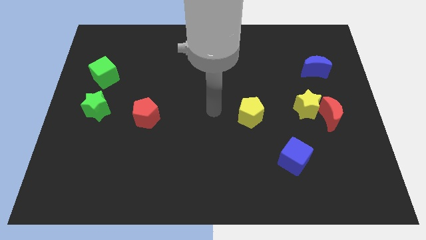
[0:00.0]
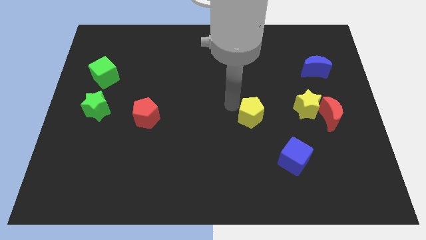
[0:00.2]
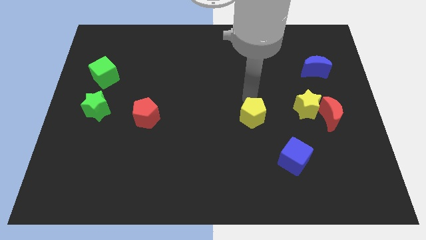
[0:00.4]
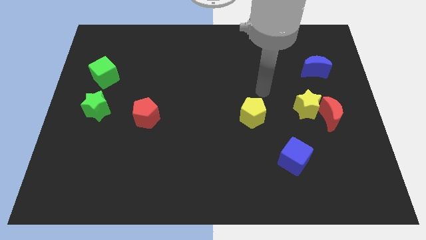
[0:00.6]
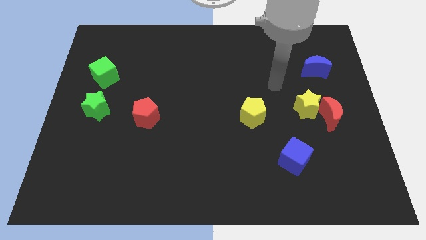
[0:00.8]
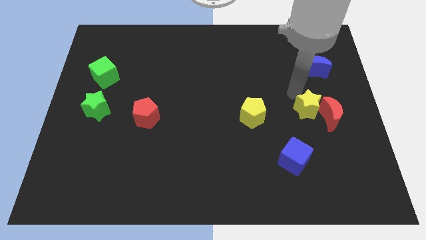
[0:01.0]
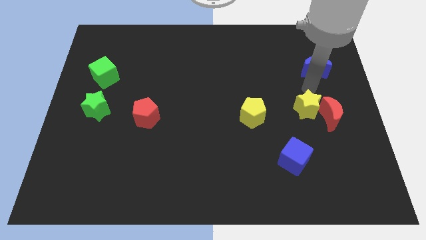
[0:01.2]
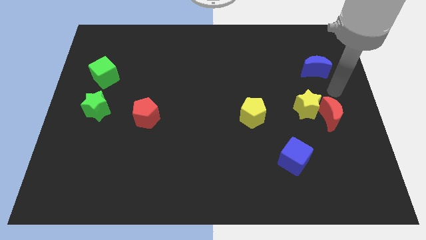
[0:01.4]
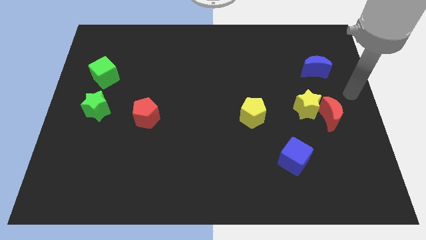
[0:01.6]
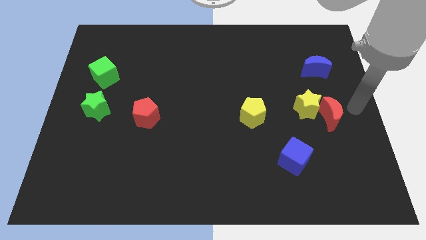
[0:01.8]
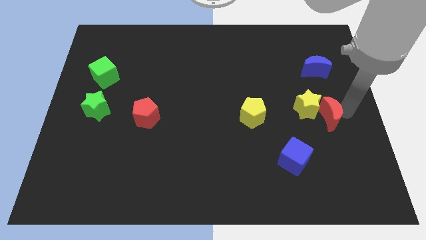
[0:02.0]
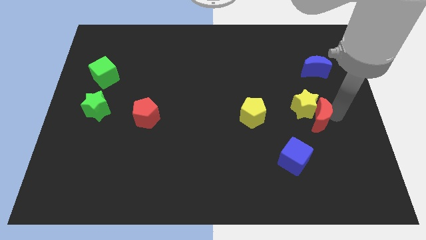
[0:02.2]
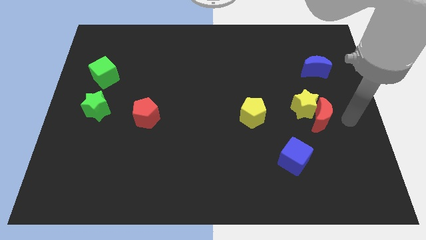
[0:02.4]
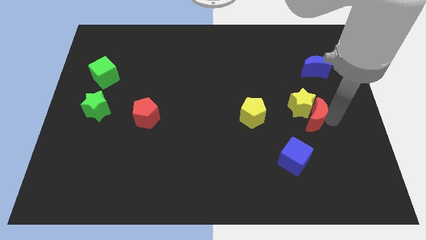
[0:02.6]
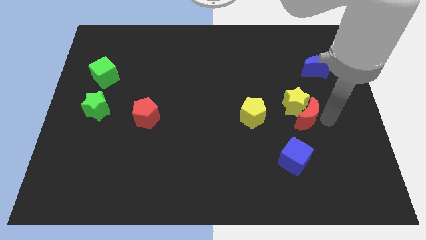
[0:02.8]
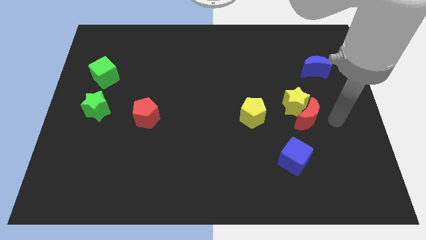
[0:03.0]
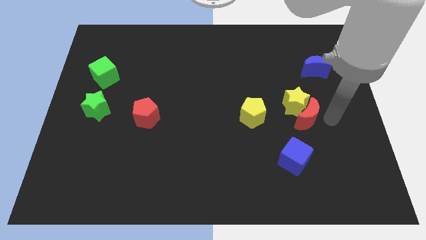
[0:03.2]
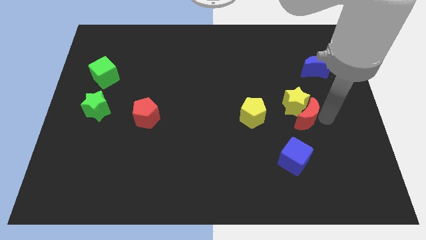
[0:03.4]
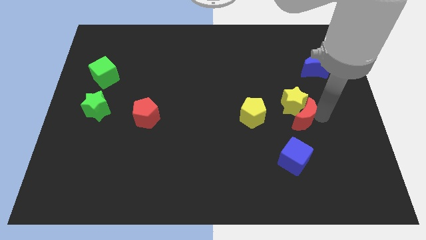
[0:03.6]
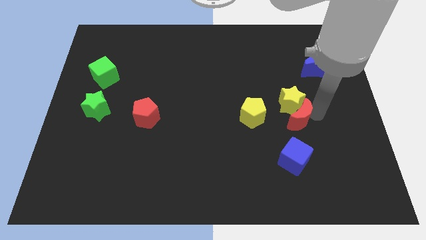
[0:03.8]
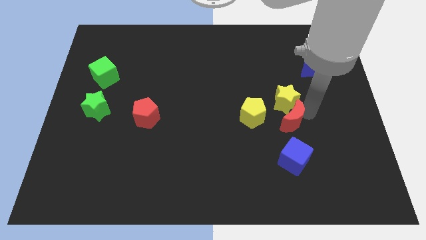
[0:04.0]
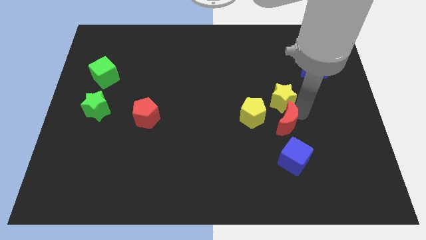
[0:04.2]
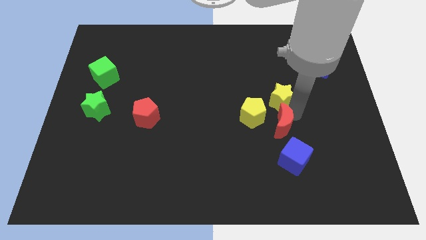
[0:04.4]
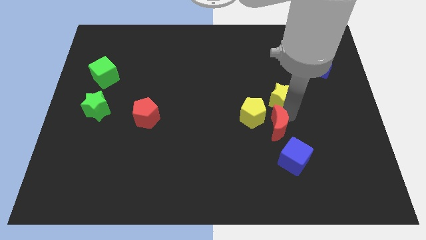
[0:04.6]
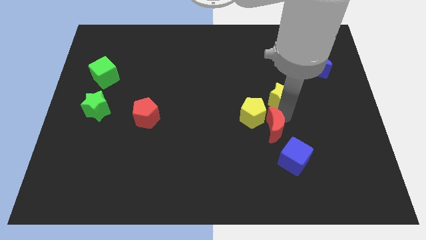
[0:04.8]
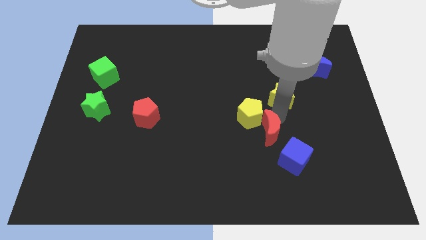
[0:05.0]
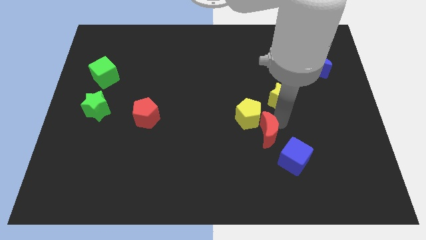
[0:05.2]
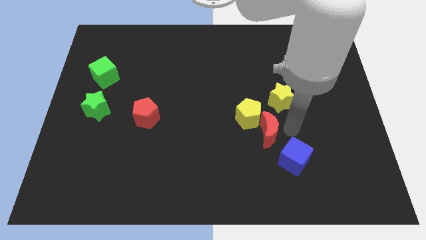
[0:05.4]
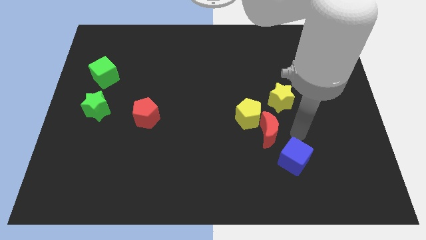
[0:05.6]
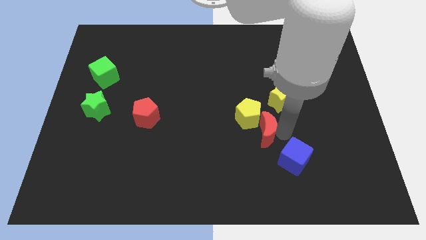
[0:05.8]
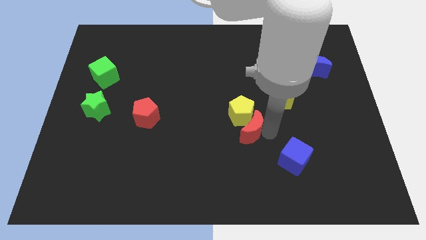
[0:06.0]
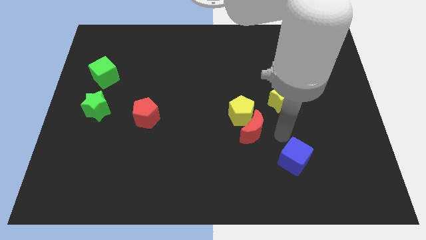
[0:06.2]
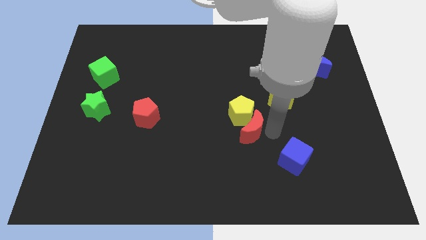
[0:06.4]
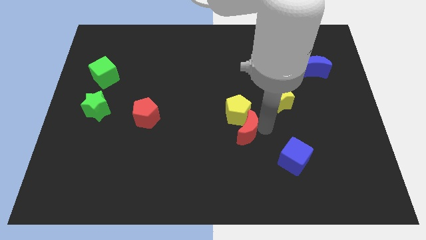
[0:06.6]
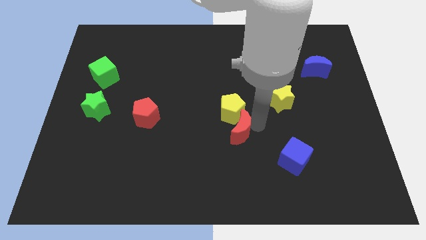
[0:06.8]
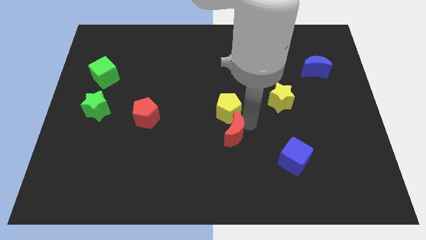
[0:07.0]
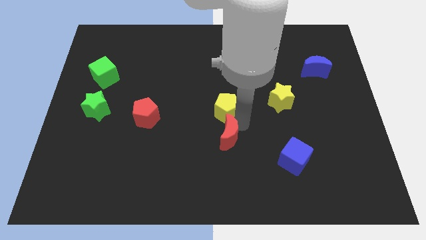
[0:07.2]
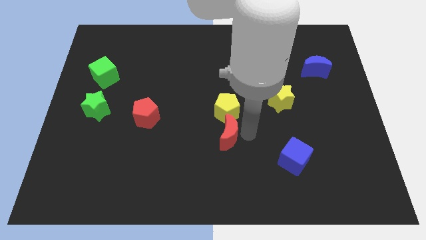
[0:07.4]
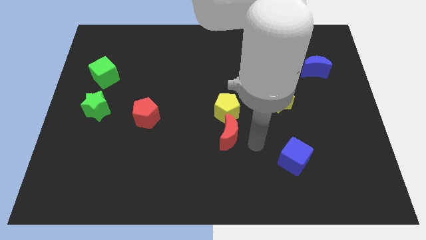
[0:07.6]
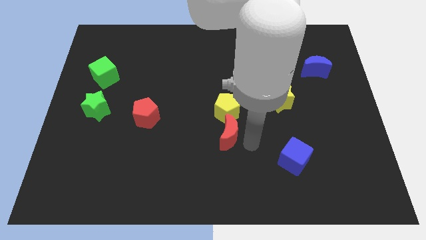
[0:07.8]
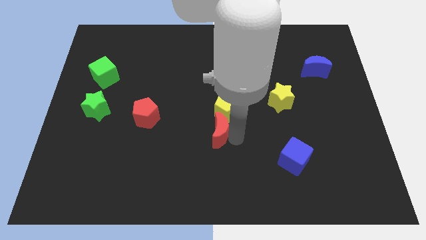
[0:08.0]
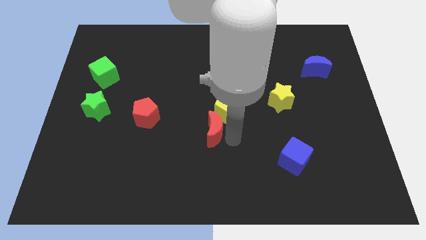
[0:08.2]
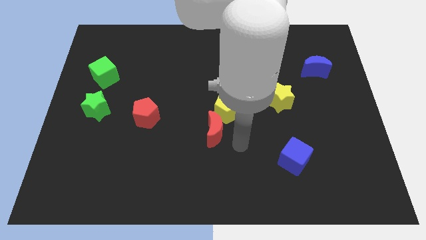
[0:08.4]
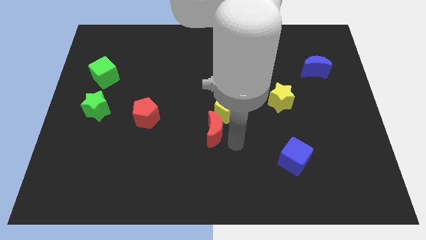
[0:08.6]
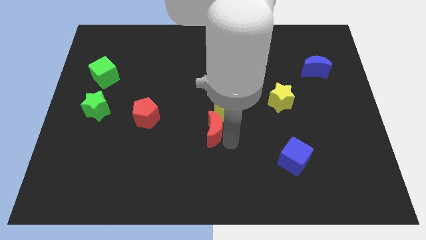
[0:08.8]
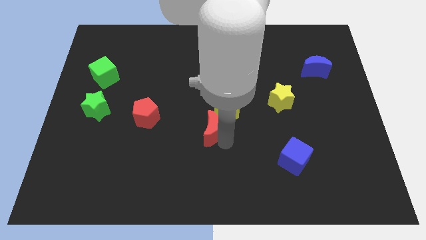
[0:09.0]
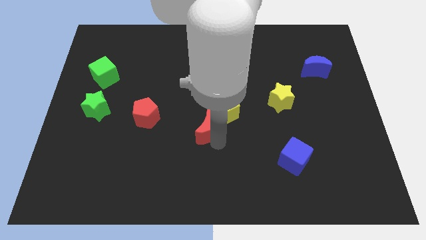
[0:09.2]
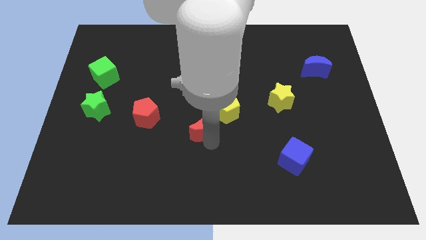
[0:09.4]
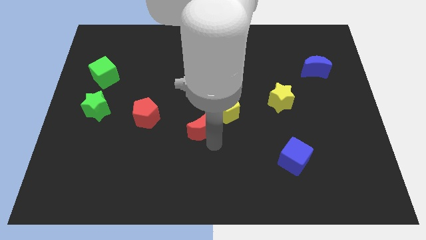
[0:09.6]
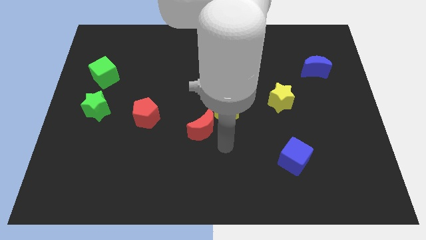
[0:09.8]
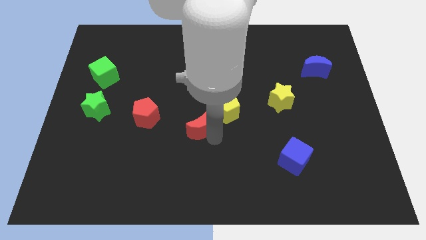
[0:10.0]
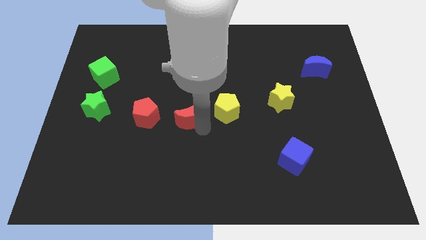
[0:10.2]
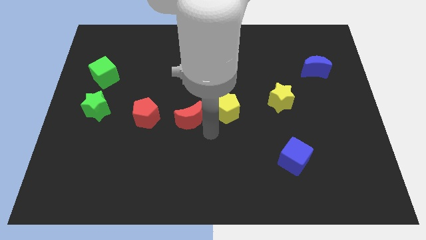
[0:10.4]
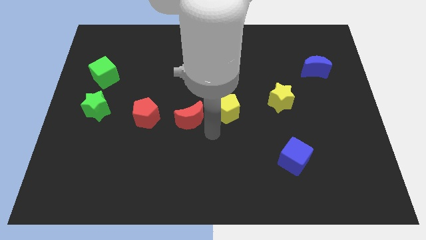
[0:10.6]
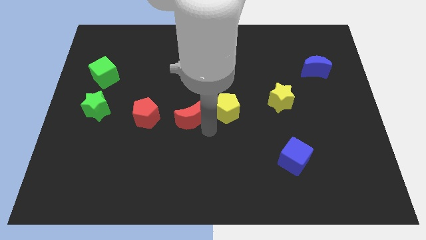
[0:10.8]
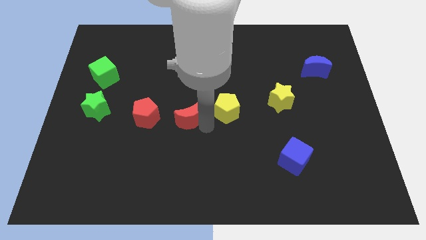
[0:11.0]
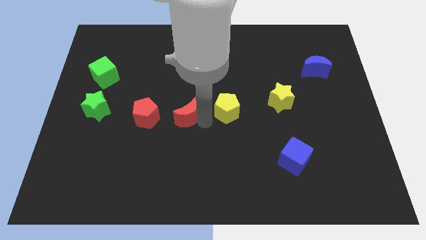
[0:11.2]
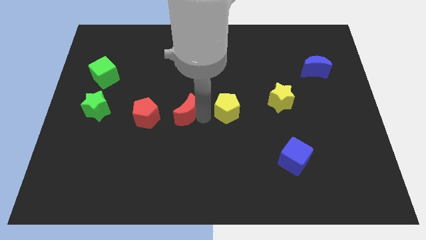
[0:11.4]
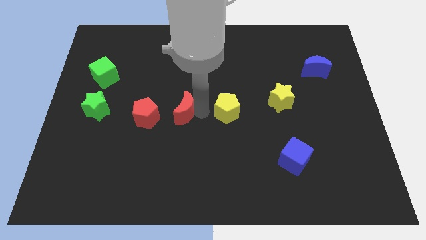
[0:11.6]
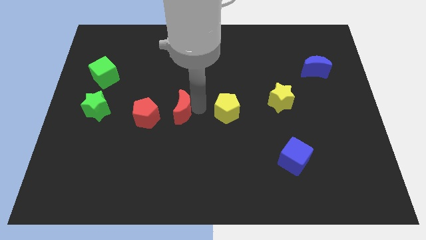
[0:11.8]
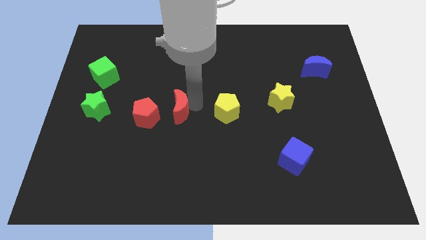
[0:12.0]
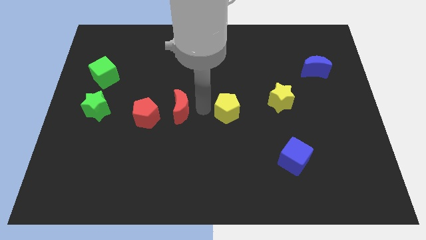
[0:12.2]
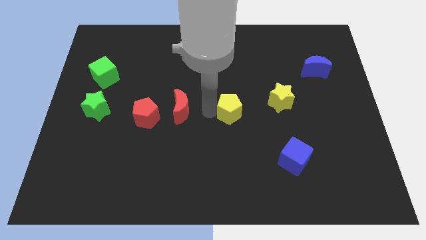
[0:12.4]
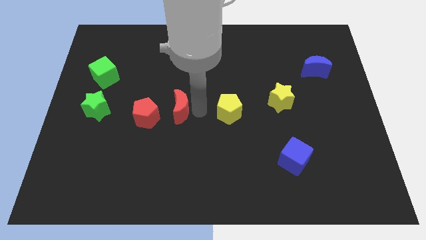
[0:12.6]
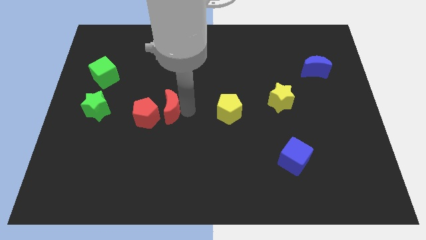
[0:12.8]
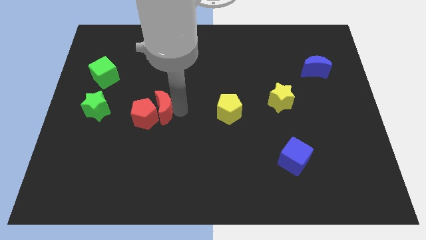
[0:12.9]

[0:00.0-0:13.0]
slide the red moon right of the green star

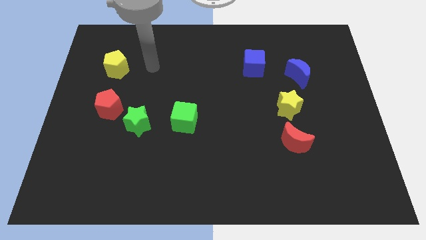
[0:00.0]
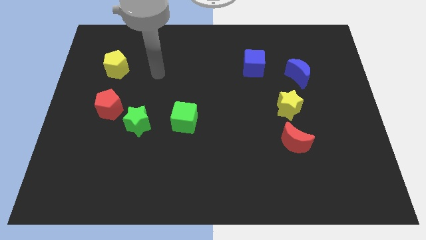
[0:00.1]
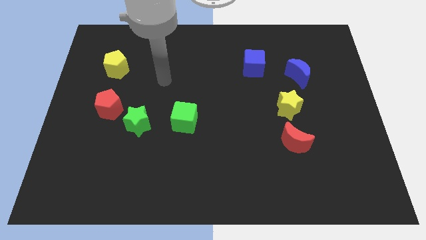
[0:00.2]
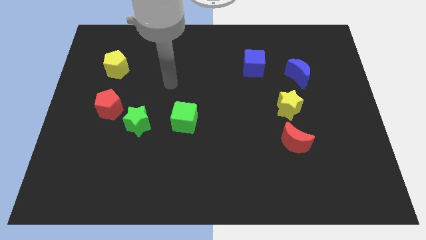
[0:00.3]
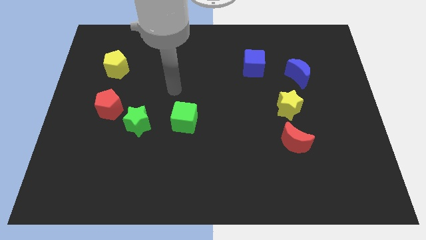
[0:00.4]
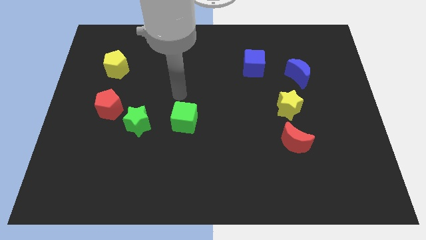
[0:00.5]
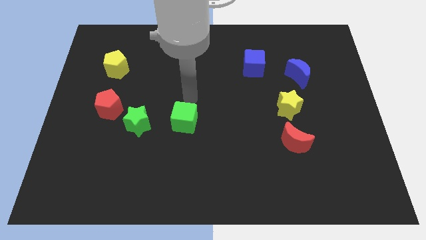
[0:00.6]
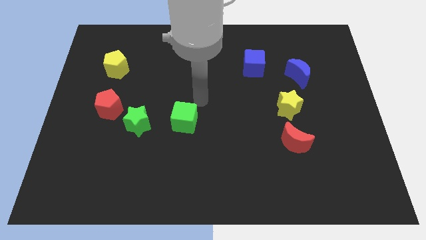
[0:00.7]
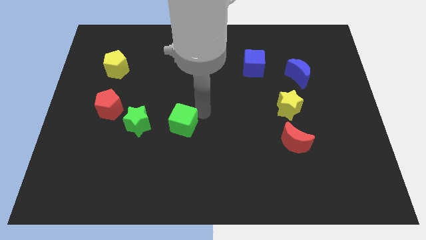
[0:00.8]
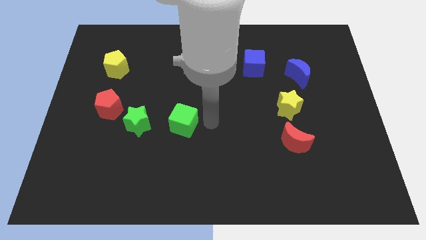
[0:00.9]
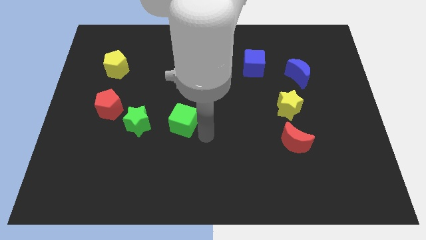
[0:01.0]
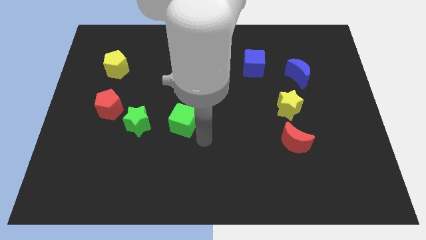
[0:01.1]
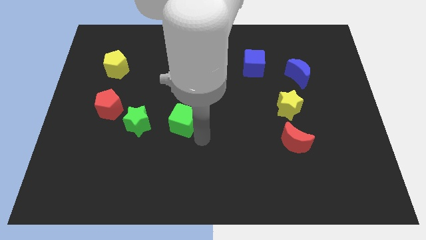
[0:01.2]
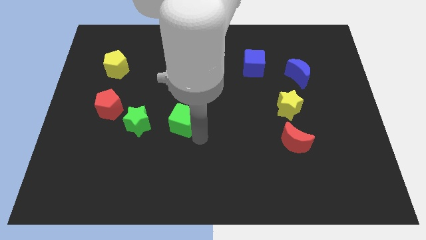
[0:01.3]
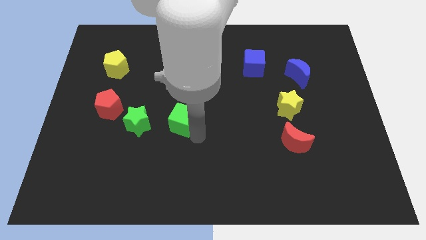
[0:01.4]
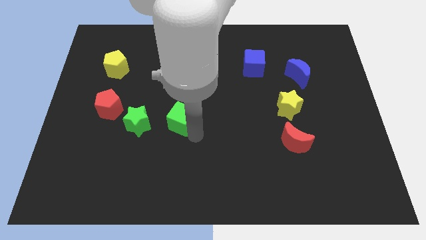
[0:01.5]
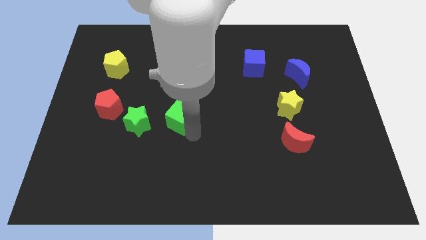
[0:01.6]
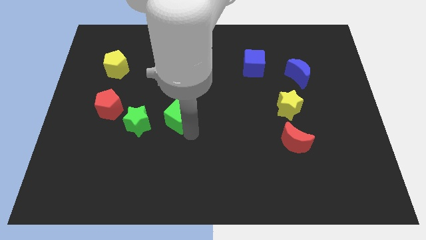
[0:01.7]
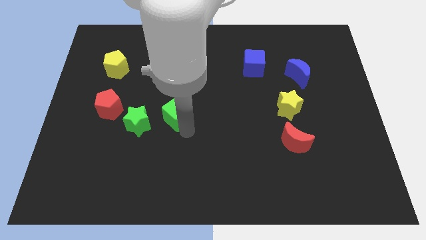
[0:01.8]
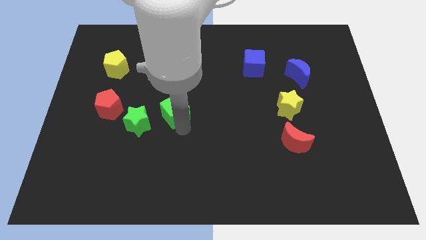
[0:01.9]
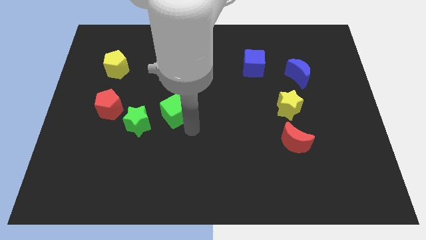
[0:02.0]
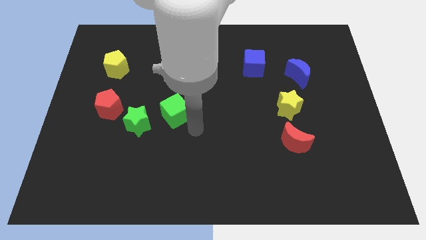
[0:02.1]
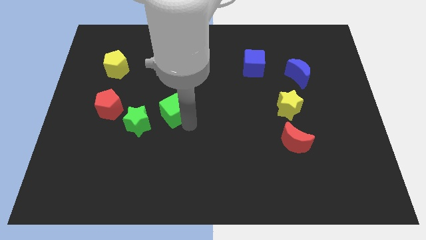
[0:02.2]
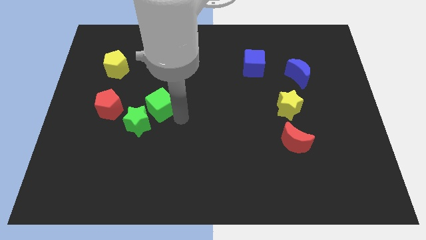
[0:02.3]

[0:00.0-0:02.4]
move the green cube to the top side of the green star
